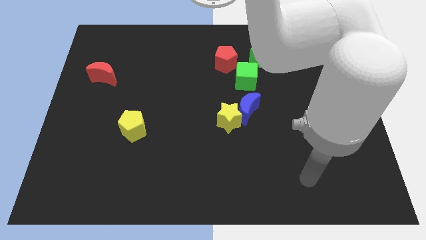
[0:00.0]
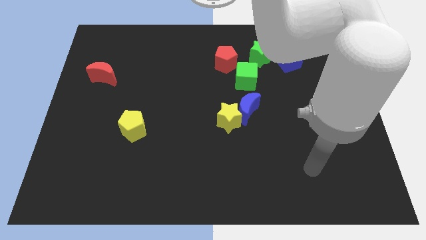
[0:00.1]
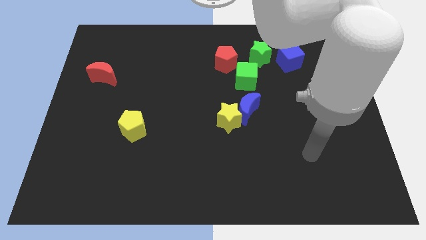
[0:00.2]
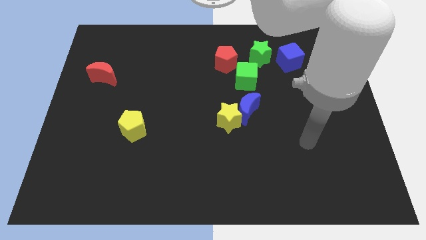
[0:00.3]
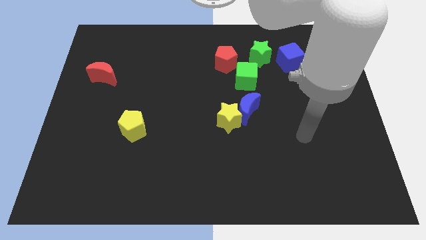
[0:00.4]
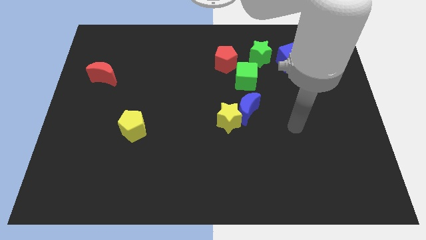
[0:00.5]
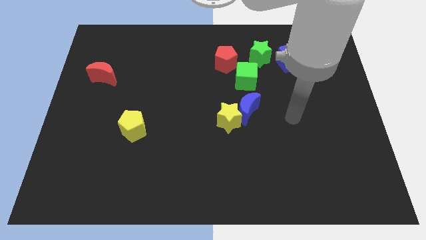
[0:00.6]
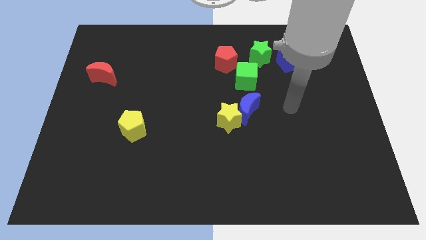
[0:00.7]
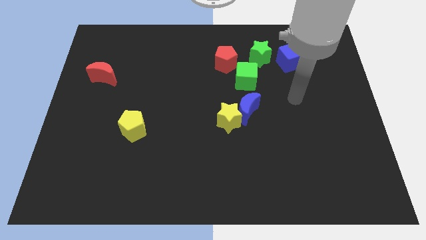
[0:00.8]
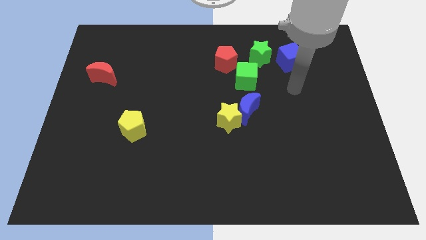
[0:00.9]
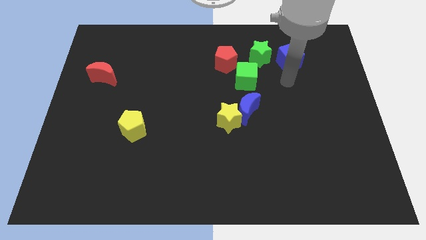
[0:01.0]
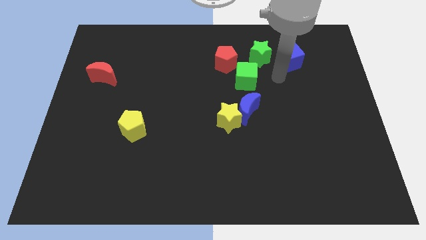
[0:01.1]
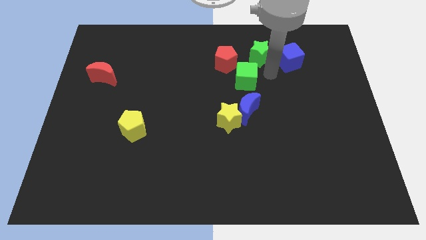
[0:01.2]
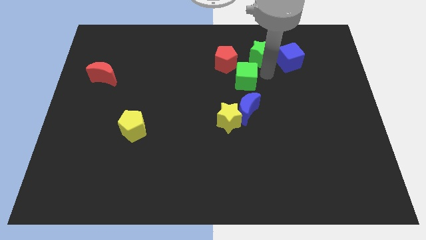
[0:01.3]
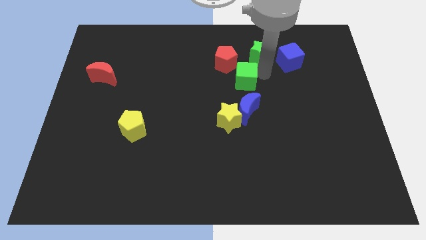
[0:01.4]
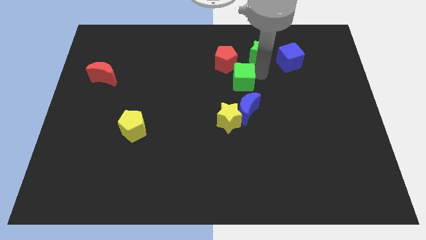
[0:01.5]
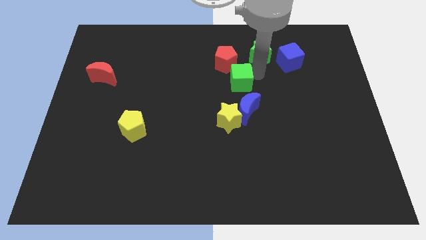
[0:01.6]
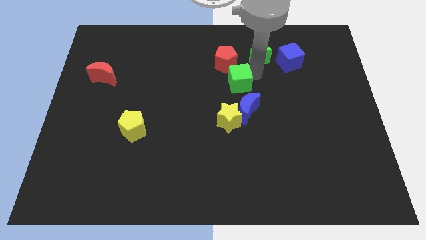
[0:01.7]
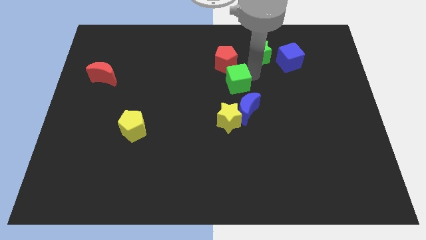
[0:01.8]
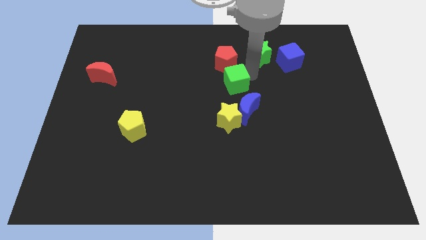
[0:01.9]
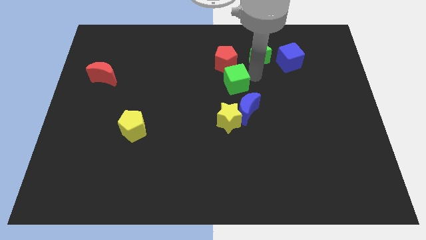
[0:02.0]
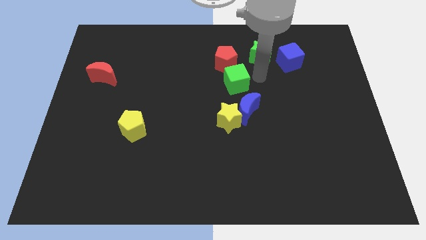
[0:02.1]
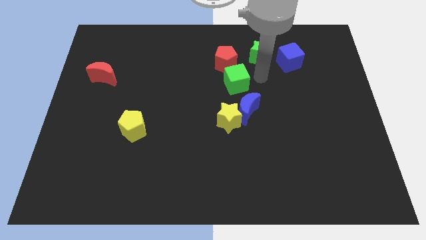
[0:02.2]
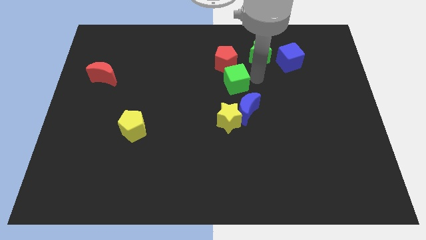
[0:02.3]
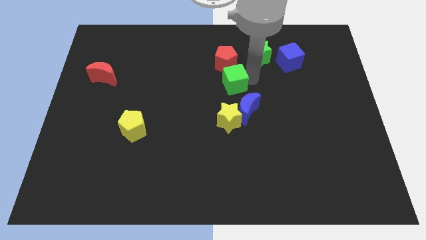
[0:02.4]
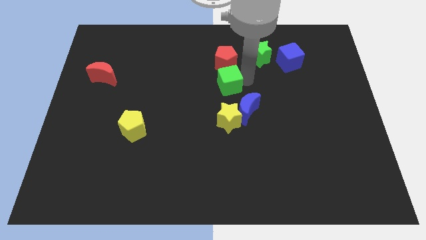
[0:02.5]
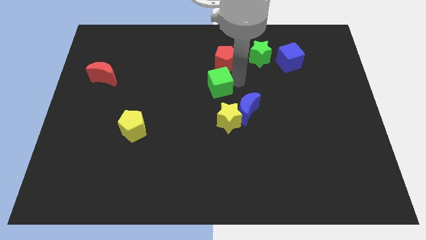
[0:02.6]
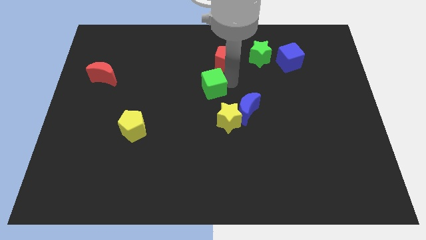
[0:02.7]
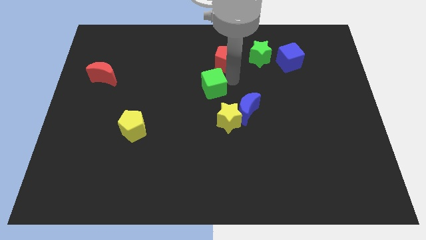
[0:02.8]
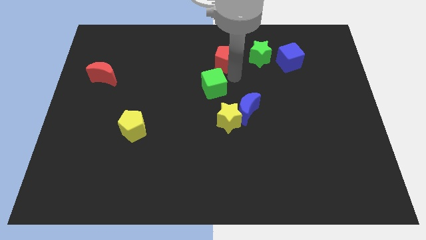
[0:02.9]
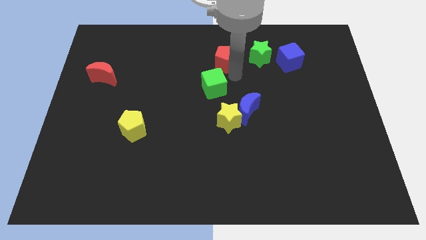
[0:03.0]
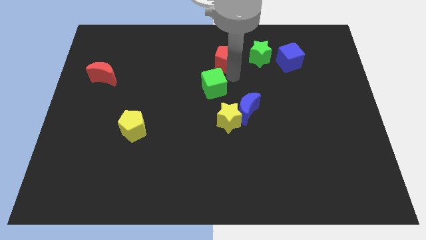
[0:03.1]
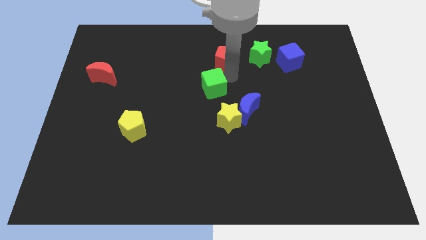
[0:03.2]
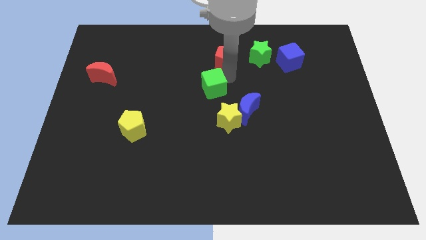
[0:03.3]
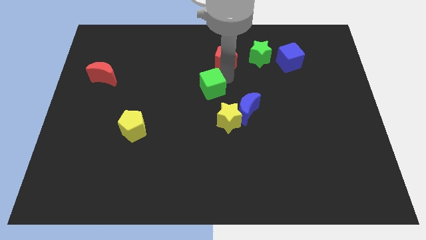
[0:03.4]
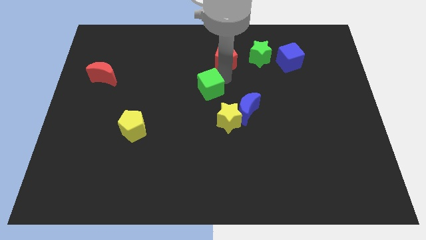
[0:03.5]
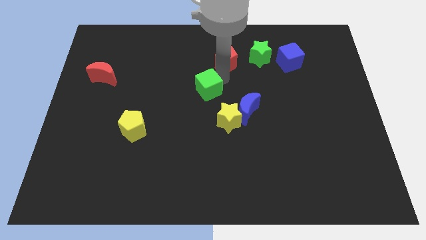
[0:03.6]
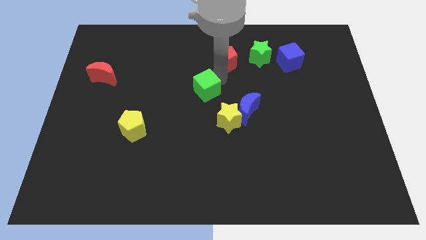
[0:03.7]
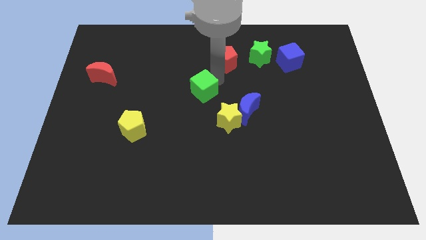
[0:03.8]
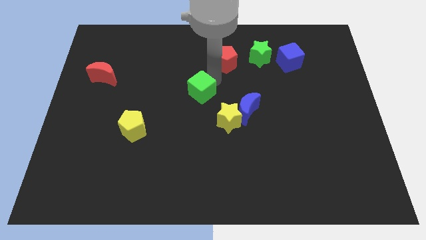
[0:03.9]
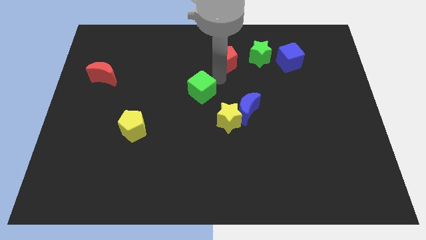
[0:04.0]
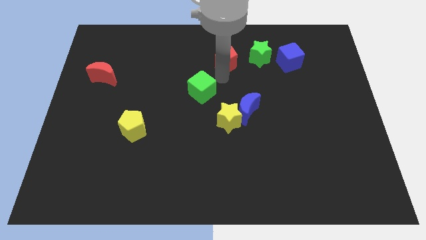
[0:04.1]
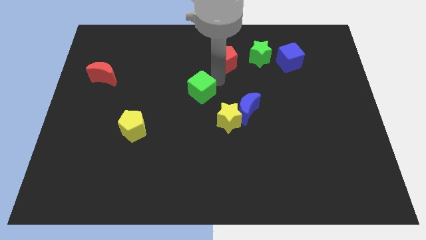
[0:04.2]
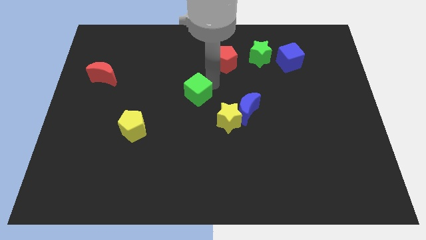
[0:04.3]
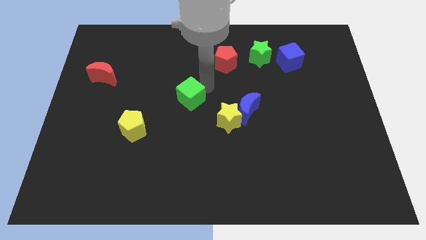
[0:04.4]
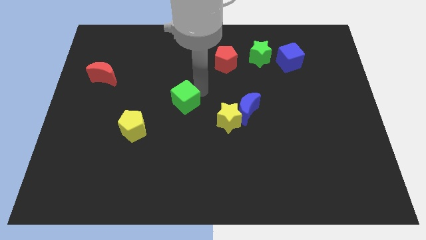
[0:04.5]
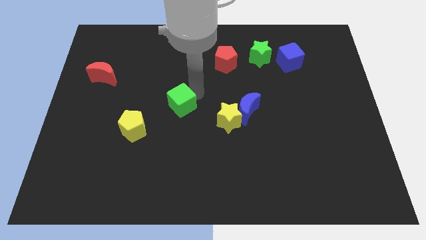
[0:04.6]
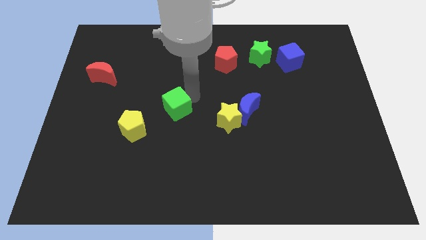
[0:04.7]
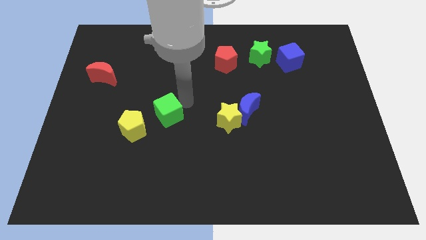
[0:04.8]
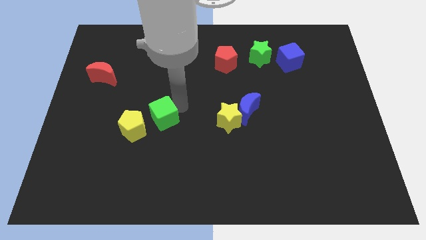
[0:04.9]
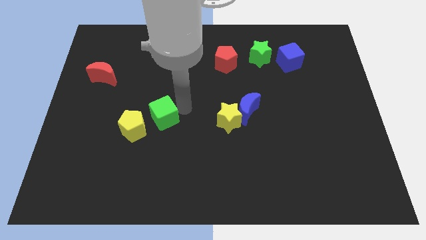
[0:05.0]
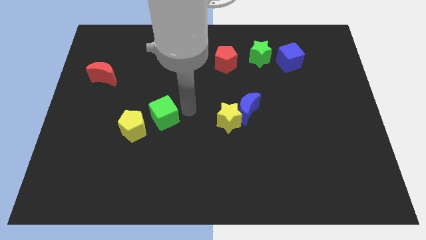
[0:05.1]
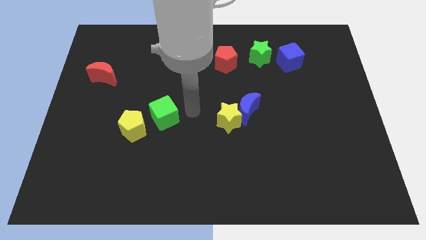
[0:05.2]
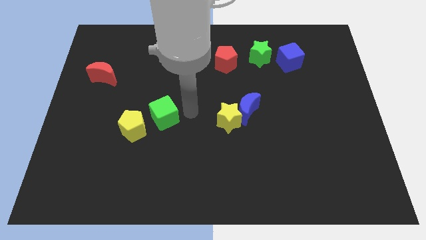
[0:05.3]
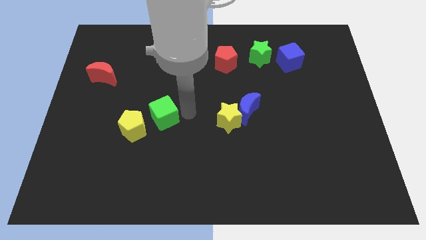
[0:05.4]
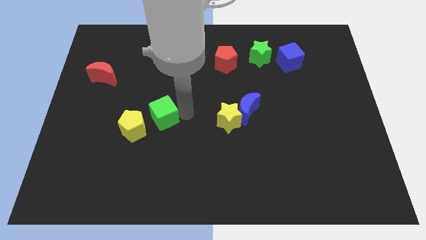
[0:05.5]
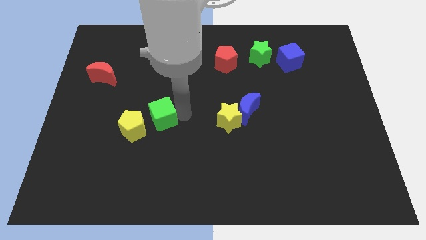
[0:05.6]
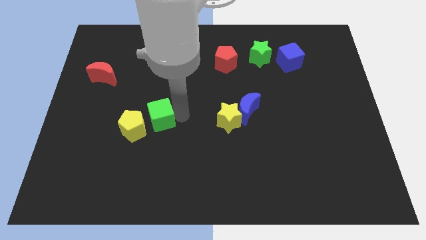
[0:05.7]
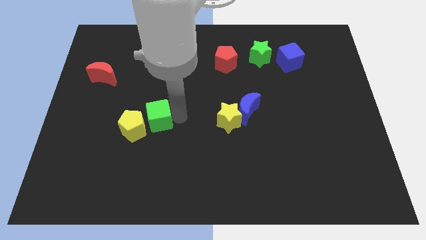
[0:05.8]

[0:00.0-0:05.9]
put the green cube to the yellow pentagon
